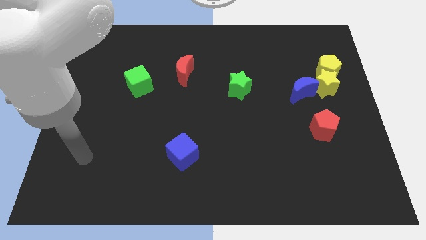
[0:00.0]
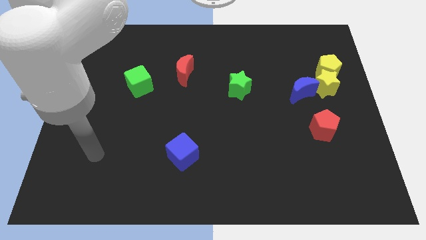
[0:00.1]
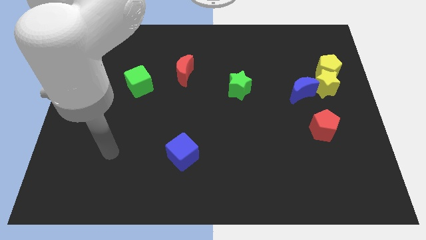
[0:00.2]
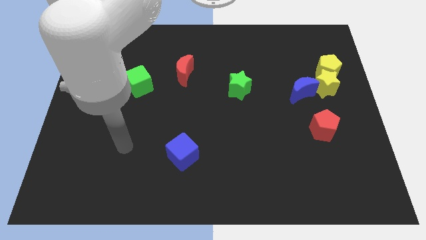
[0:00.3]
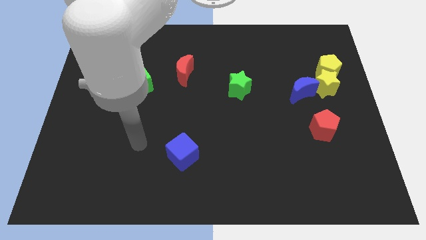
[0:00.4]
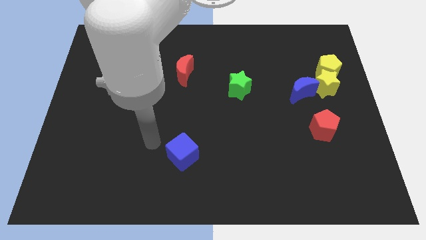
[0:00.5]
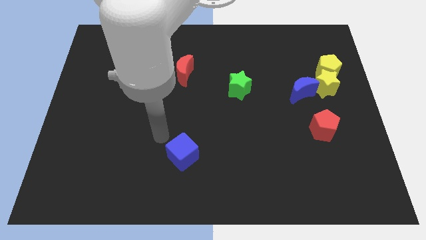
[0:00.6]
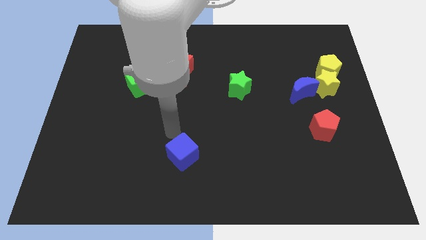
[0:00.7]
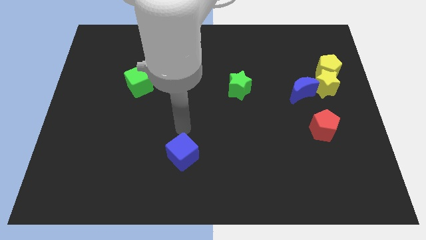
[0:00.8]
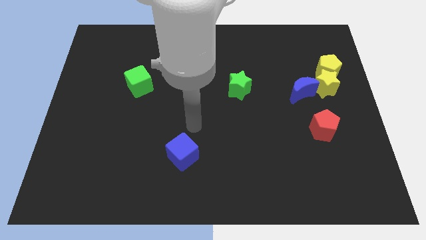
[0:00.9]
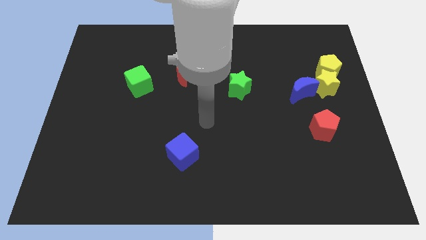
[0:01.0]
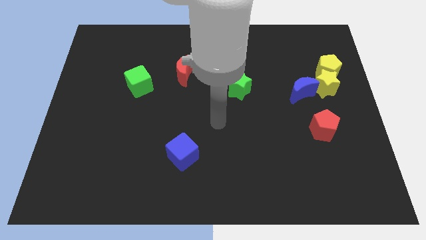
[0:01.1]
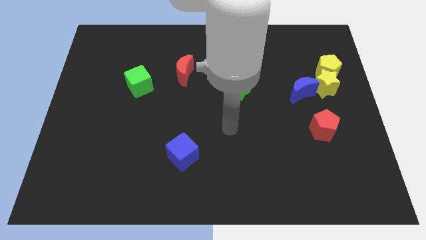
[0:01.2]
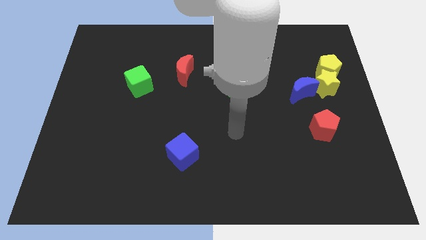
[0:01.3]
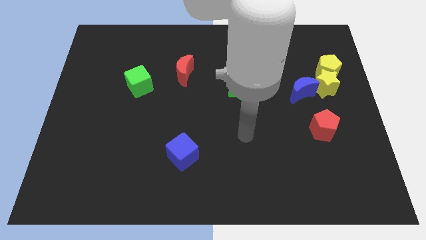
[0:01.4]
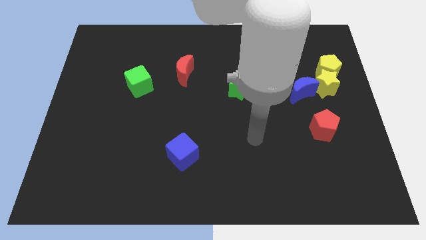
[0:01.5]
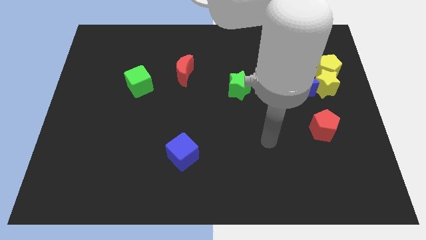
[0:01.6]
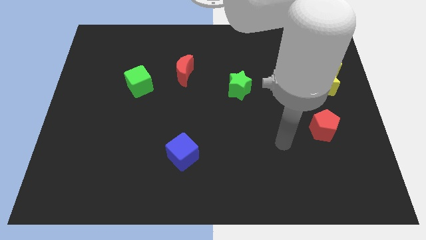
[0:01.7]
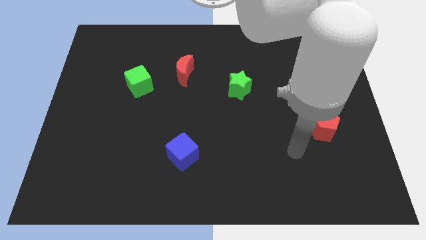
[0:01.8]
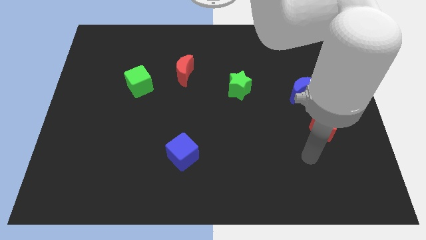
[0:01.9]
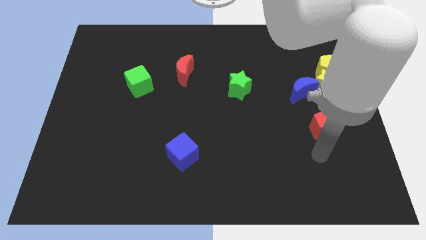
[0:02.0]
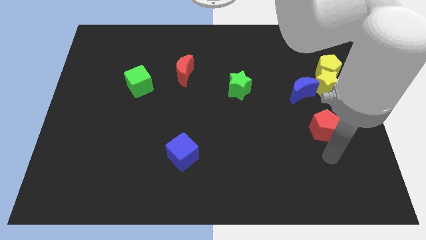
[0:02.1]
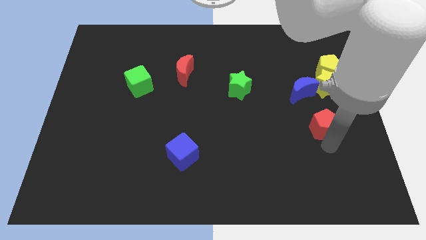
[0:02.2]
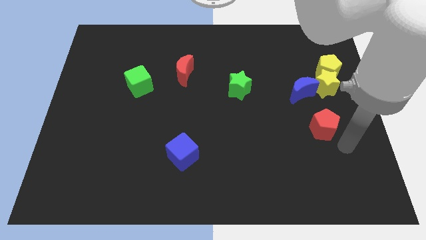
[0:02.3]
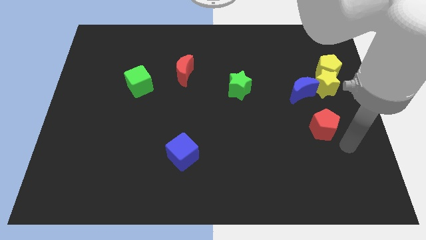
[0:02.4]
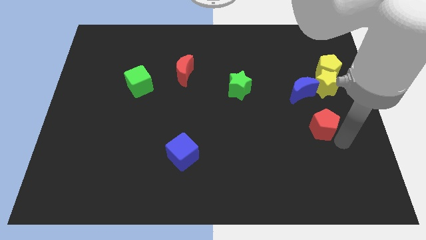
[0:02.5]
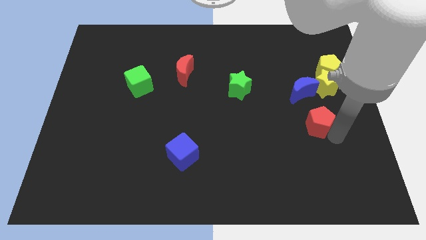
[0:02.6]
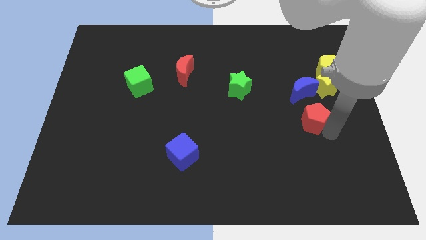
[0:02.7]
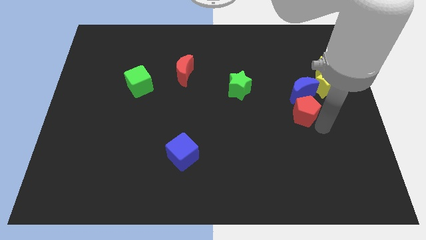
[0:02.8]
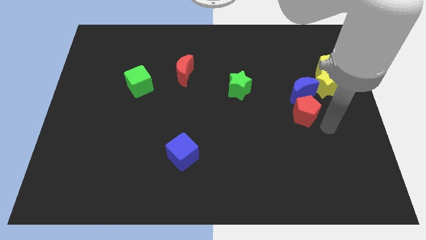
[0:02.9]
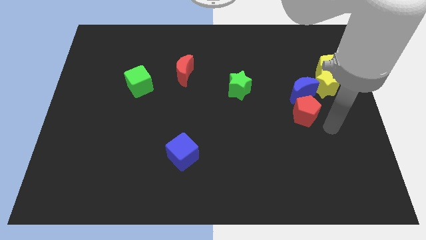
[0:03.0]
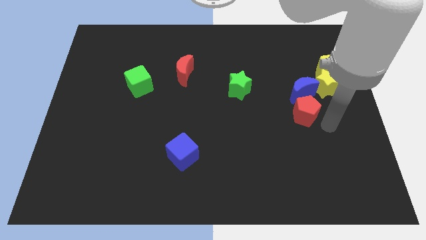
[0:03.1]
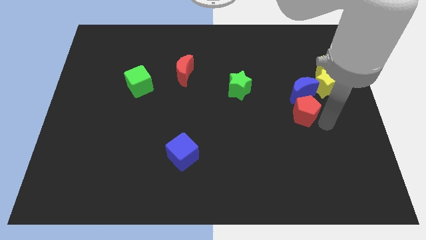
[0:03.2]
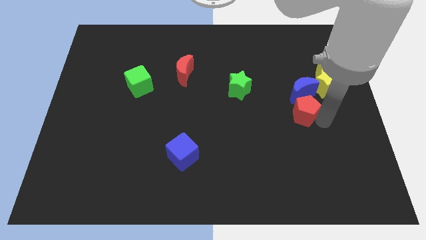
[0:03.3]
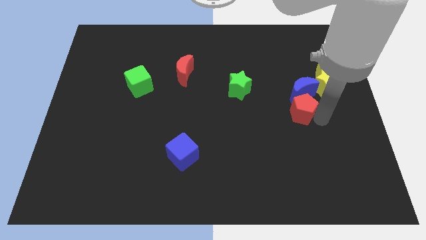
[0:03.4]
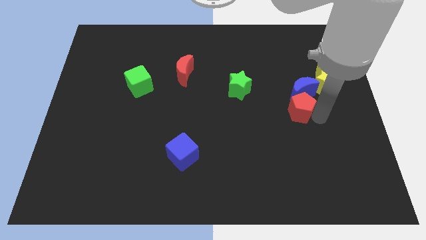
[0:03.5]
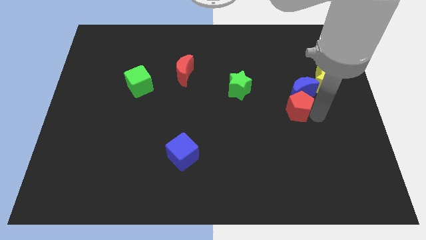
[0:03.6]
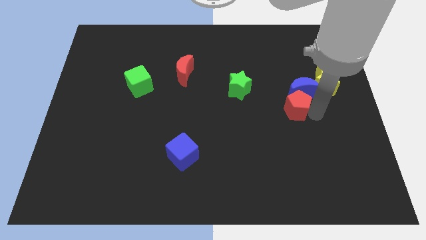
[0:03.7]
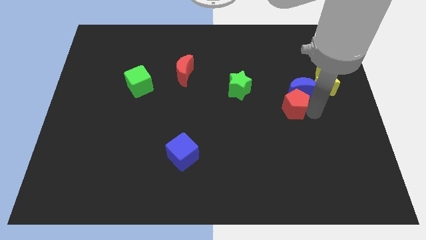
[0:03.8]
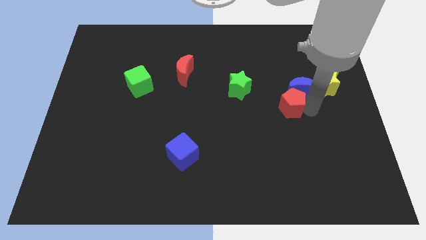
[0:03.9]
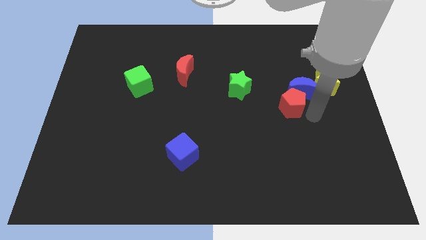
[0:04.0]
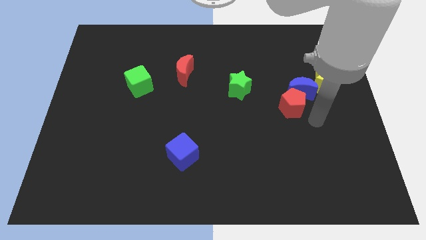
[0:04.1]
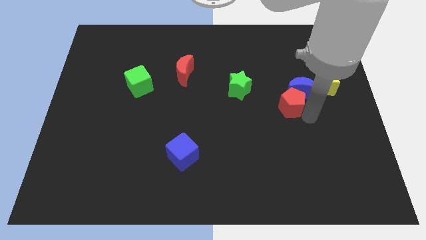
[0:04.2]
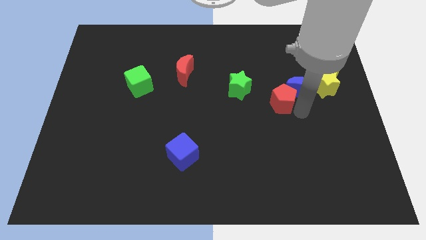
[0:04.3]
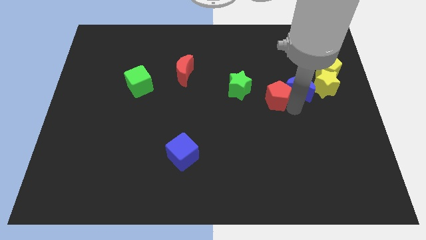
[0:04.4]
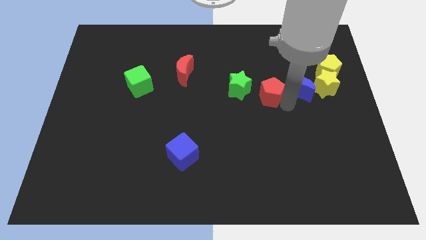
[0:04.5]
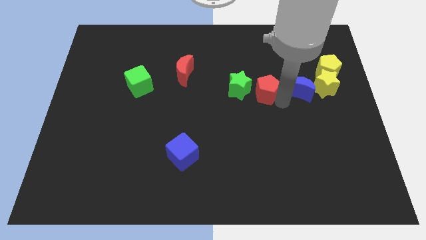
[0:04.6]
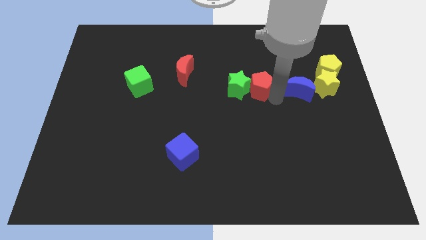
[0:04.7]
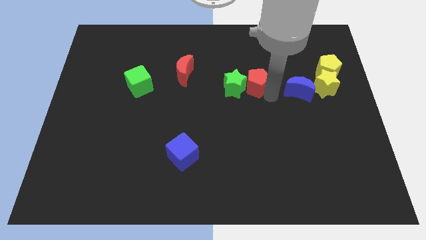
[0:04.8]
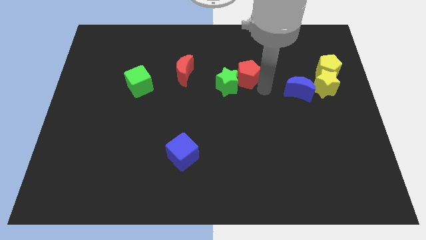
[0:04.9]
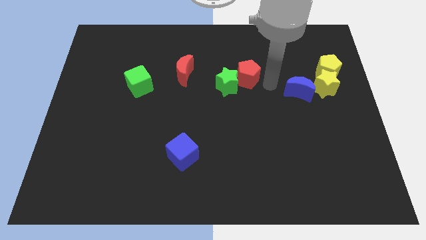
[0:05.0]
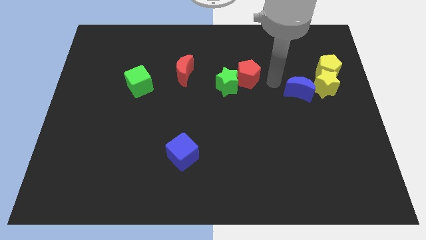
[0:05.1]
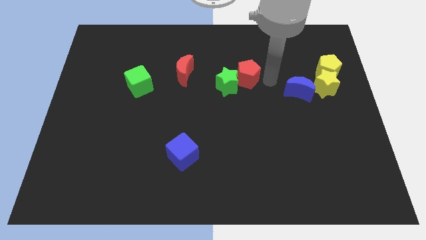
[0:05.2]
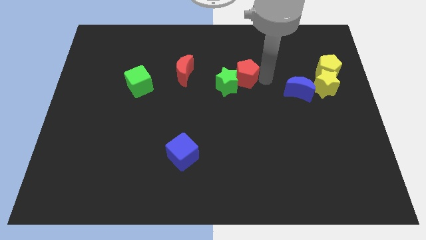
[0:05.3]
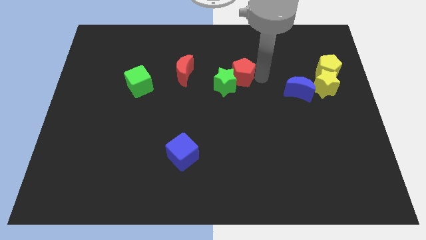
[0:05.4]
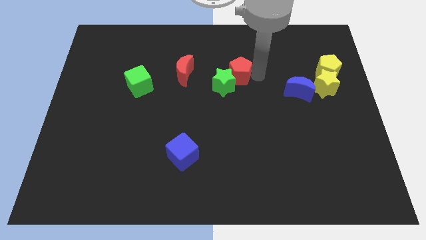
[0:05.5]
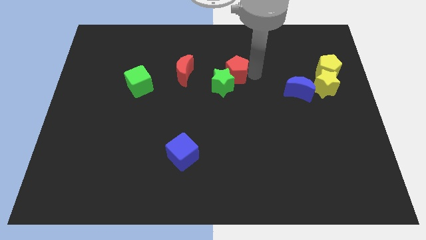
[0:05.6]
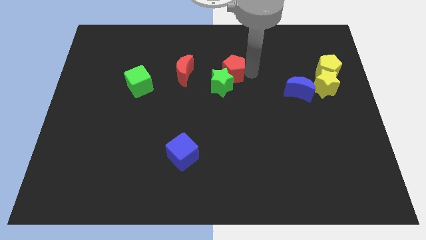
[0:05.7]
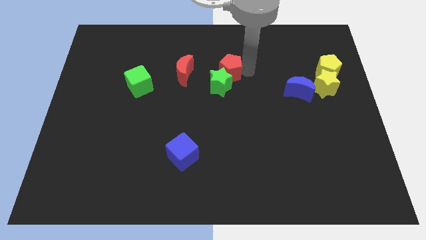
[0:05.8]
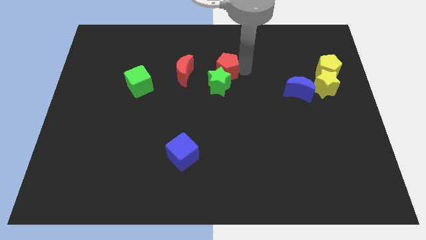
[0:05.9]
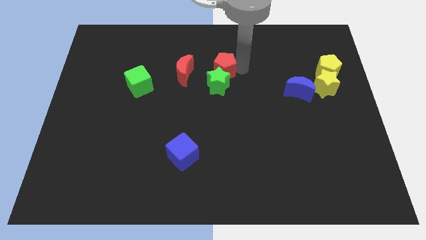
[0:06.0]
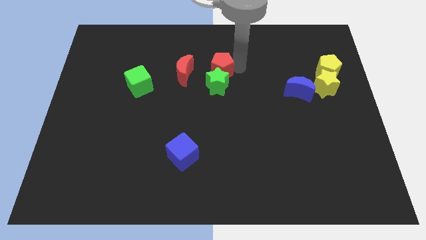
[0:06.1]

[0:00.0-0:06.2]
push the red pentagon to the top left side of the green star
